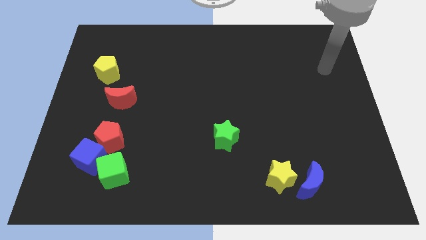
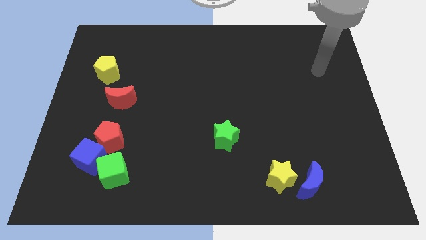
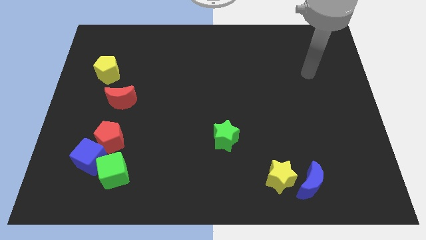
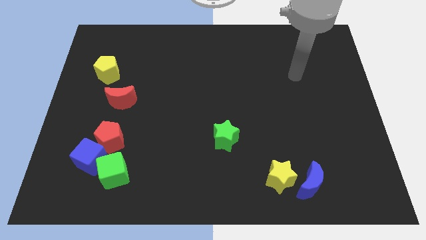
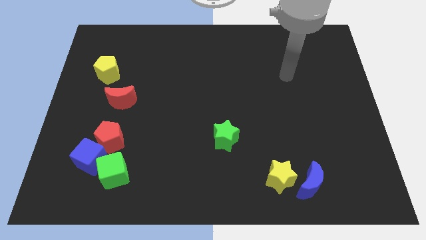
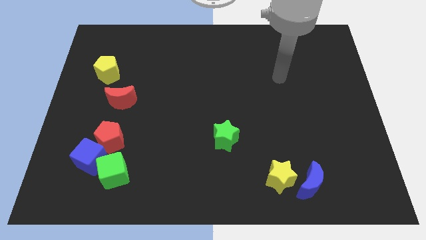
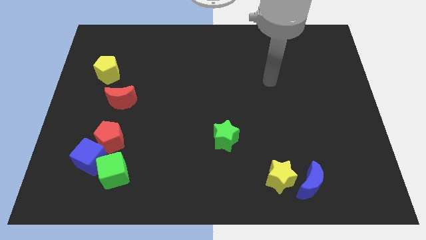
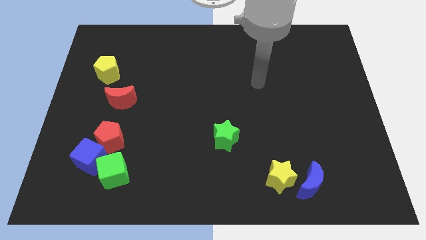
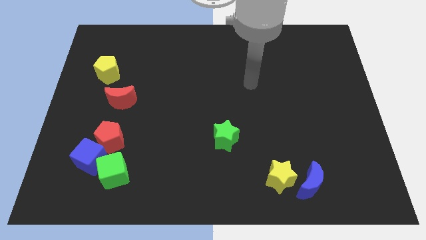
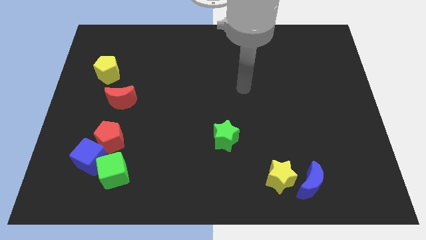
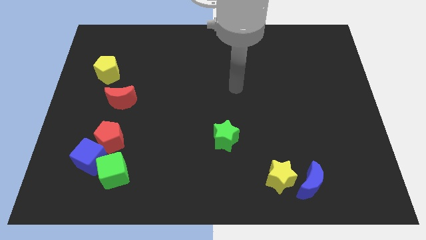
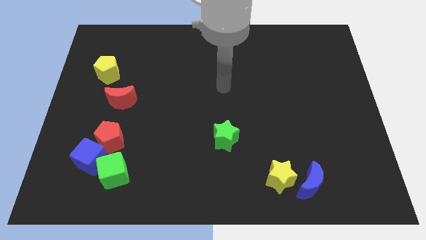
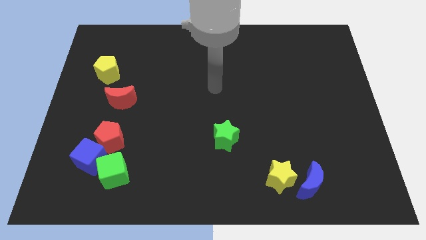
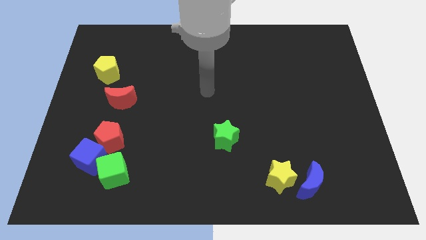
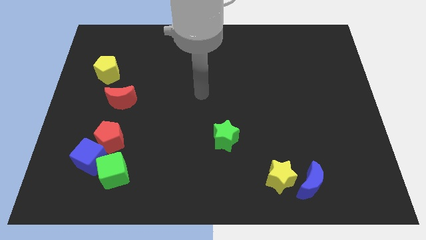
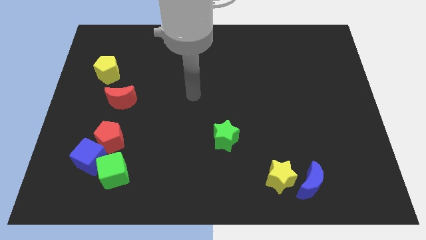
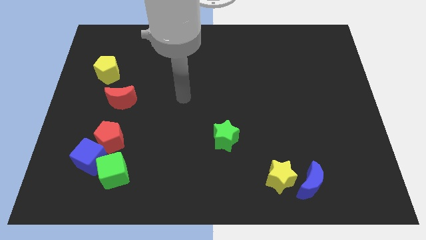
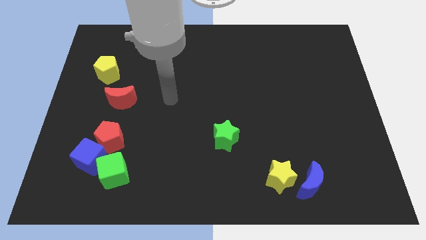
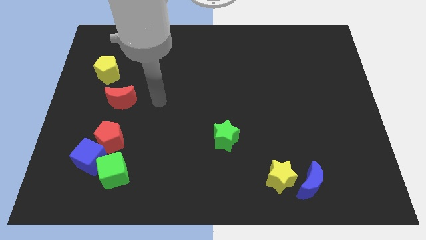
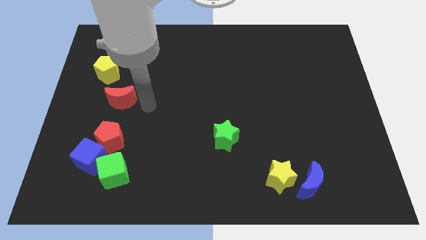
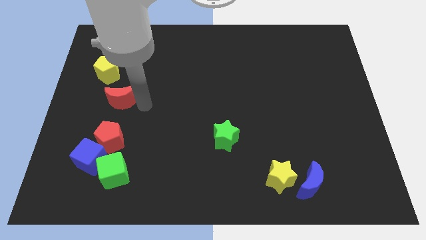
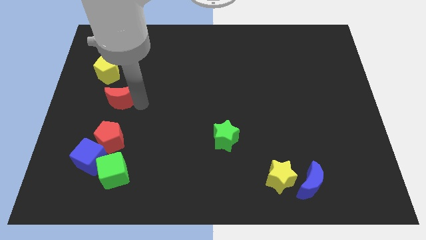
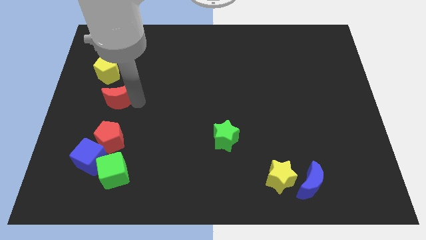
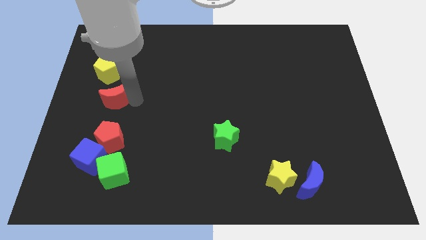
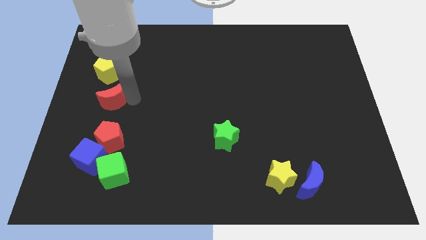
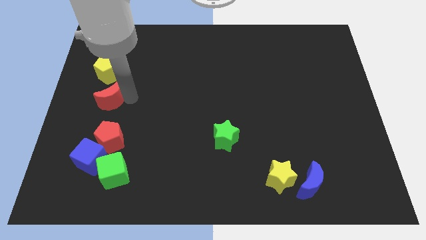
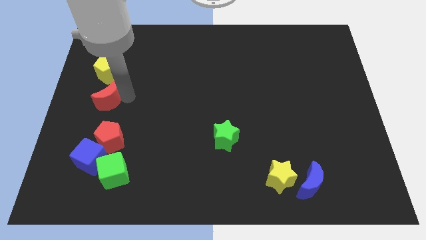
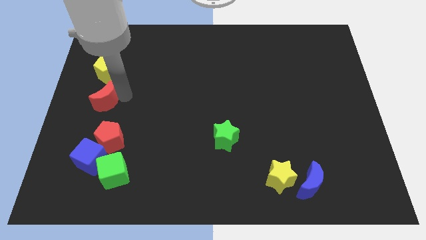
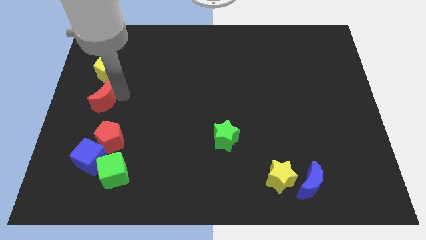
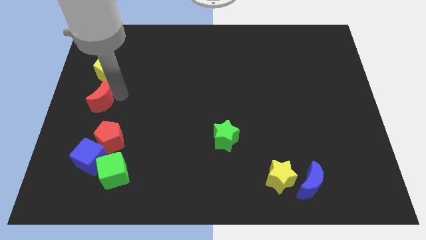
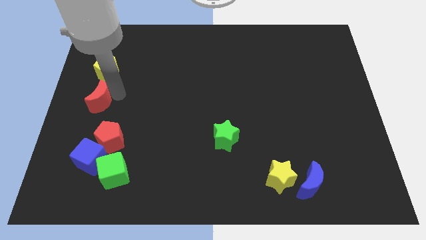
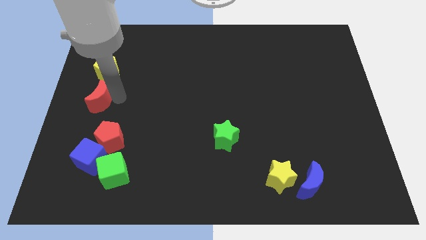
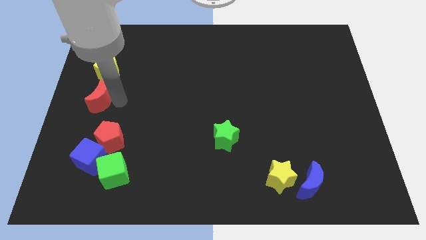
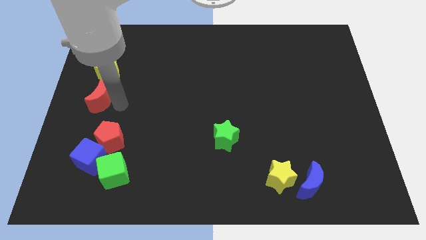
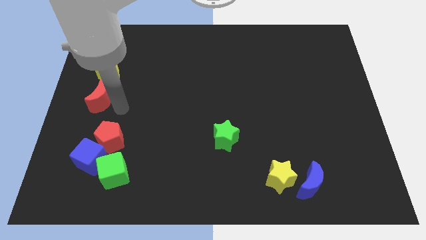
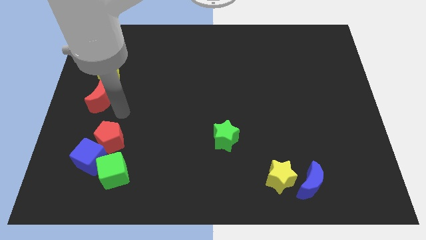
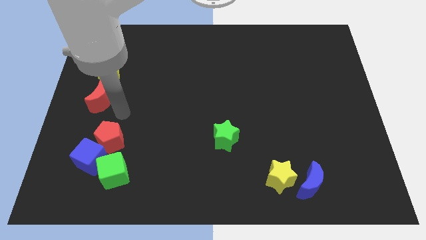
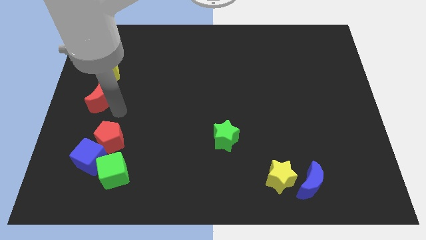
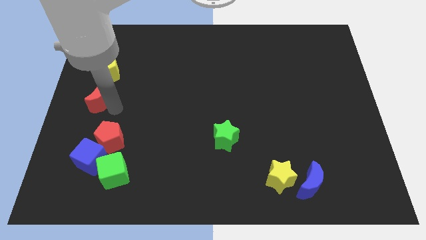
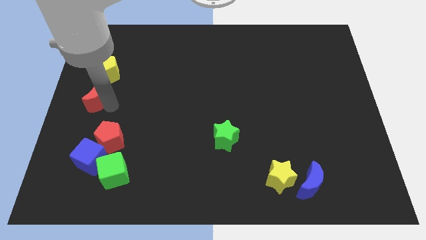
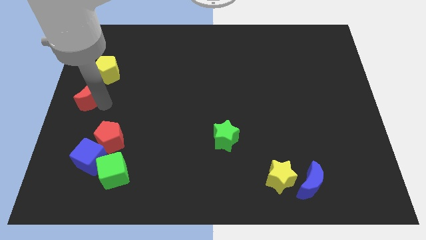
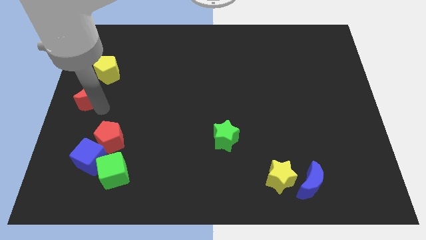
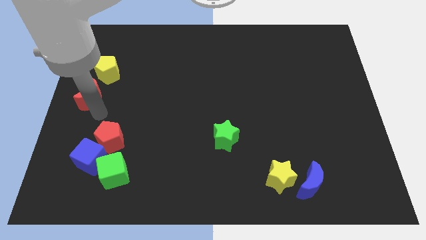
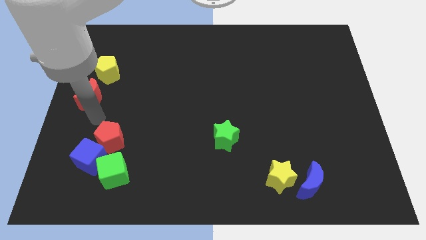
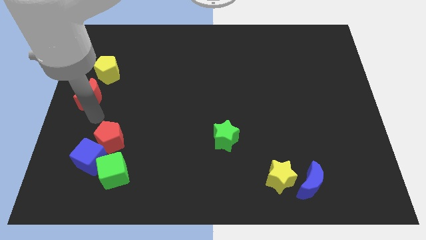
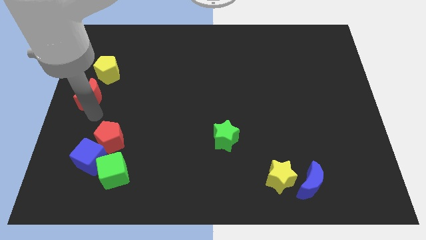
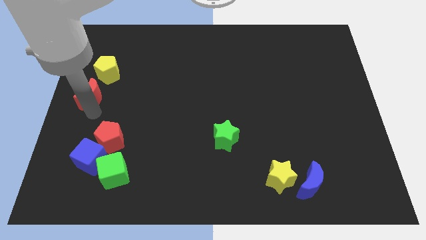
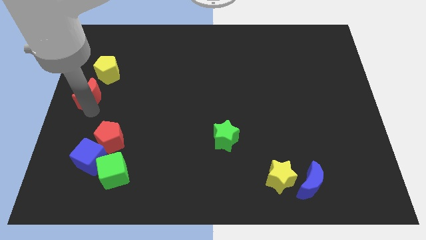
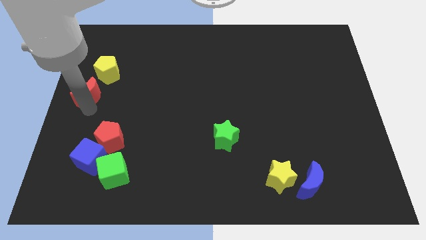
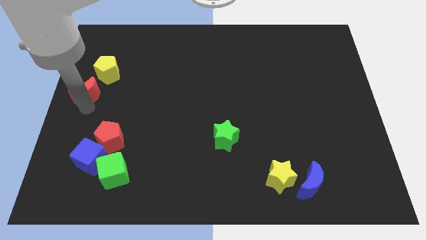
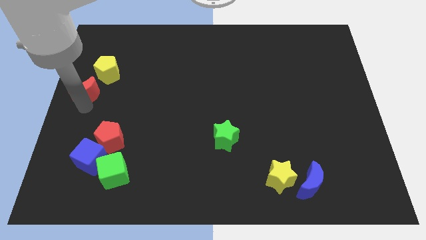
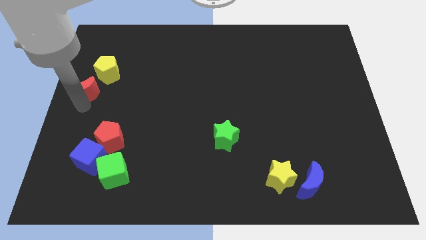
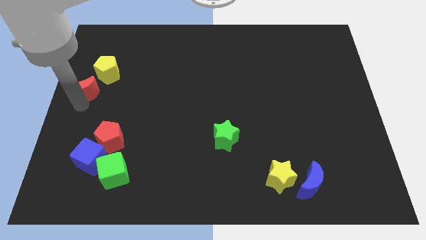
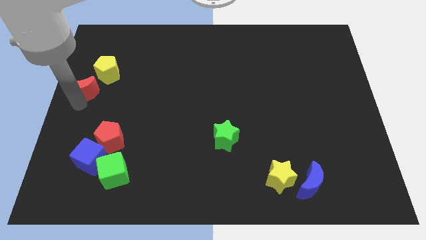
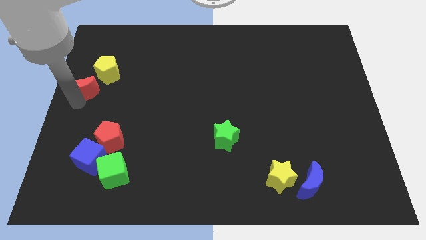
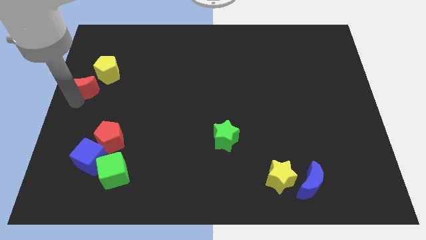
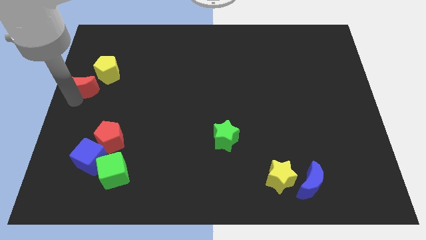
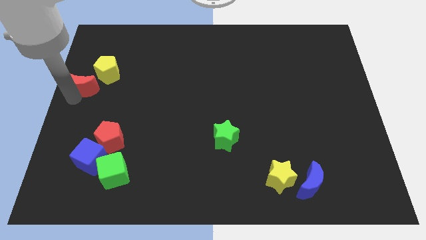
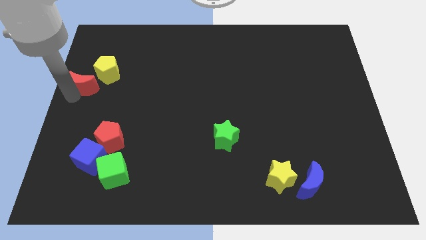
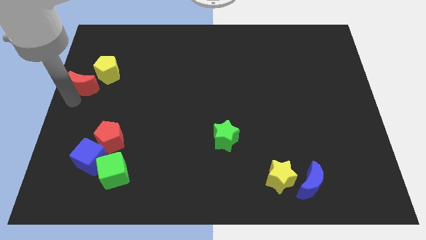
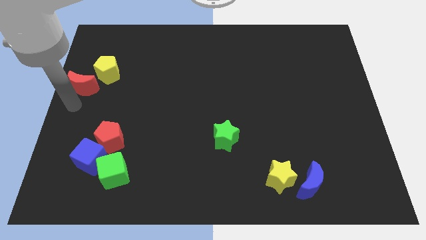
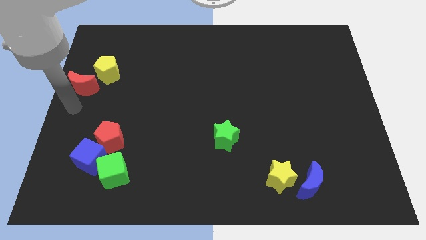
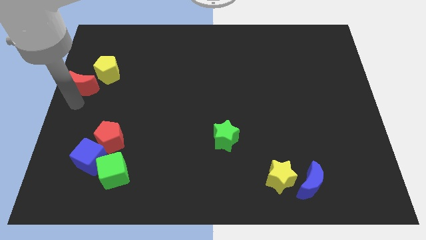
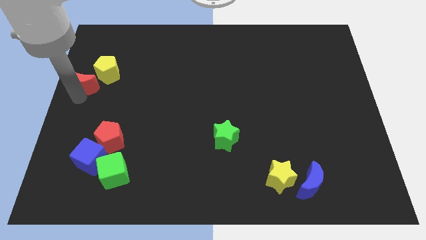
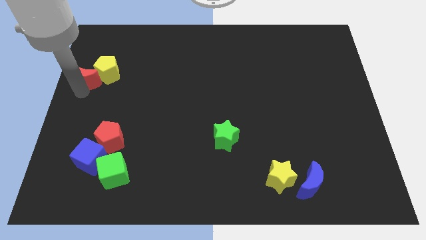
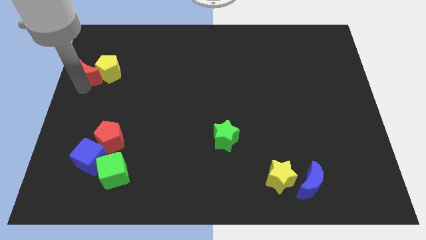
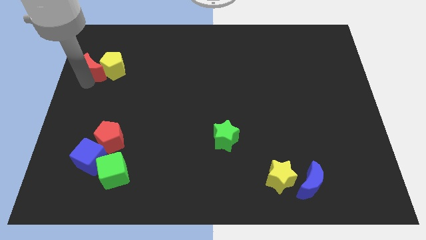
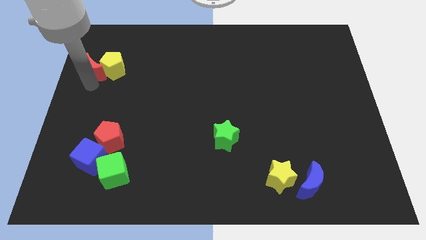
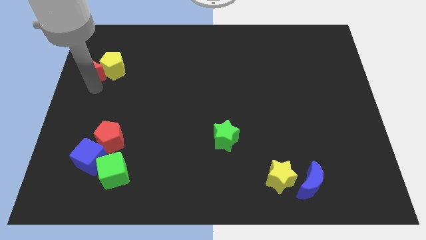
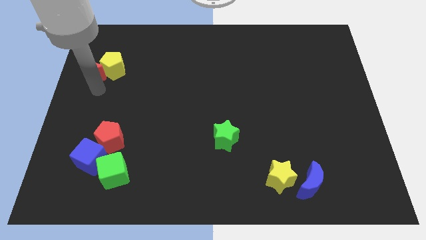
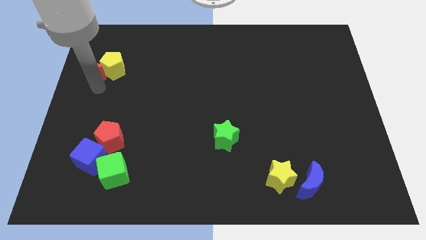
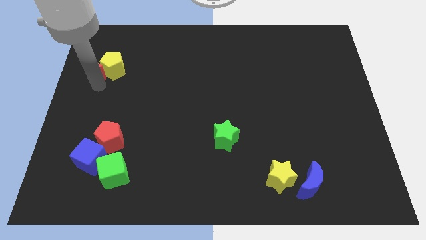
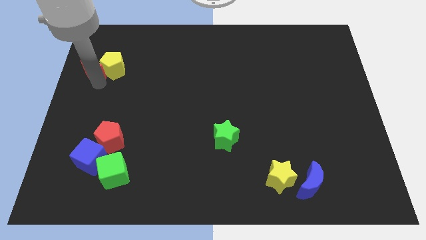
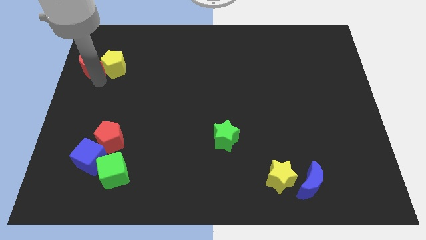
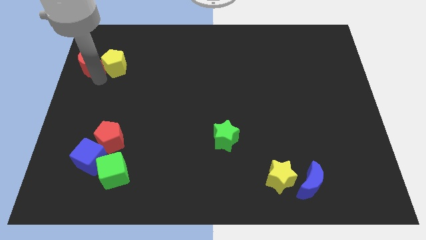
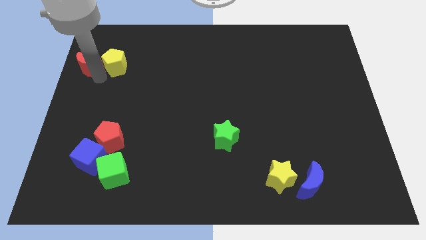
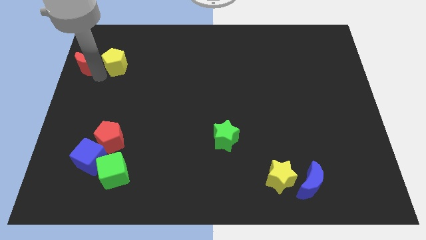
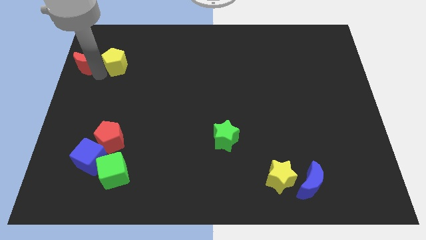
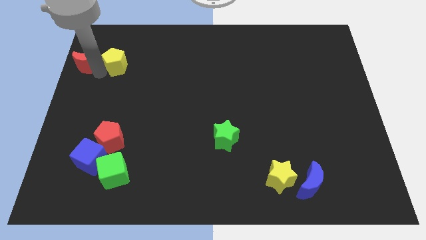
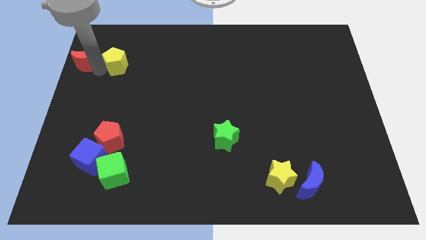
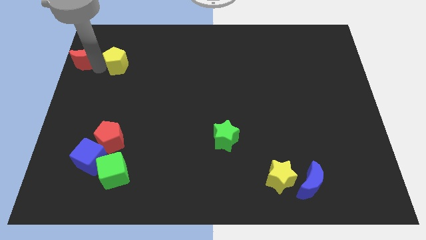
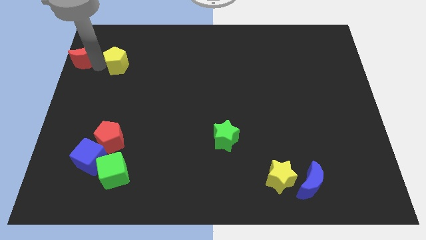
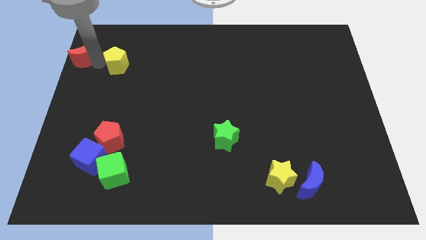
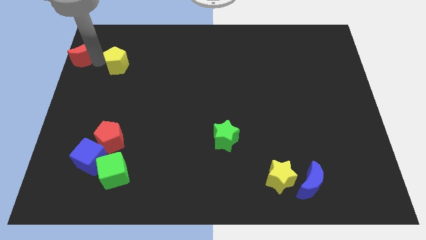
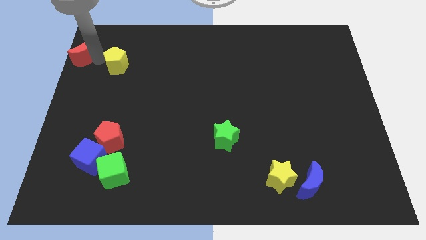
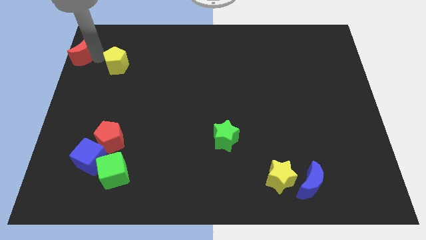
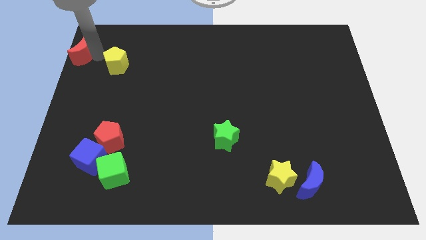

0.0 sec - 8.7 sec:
slide the red moon to the top left
